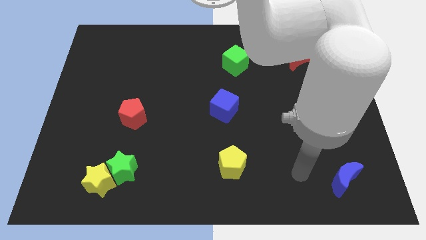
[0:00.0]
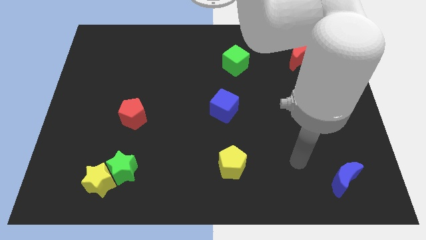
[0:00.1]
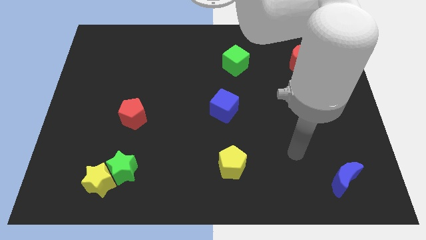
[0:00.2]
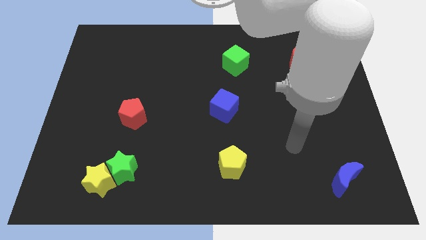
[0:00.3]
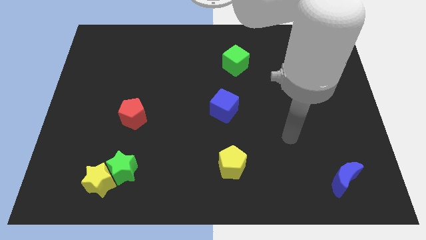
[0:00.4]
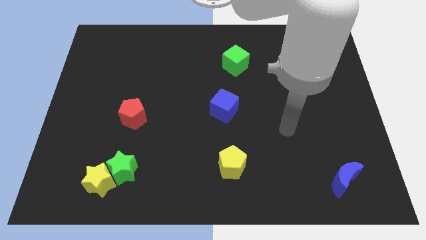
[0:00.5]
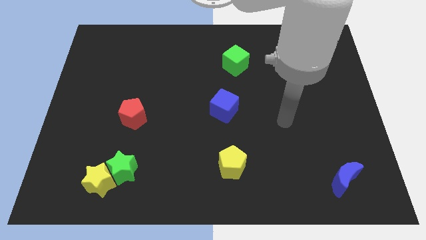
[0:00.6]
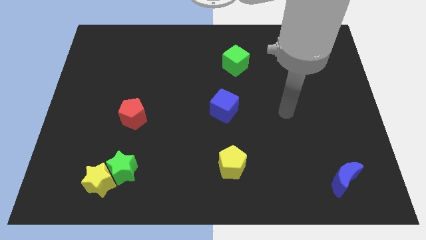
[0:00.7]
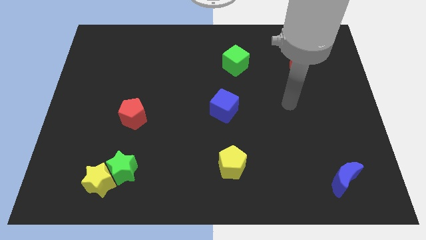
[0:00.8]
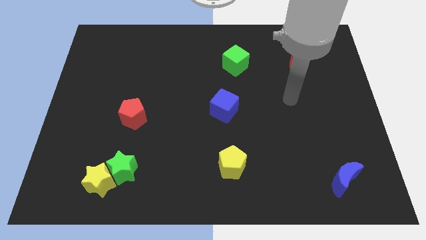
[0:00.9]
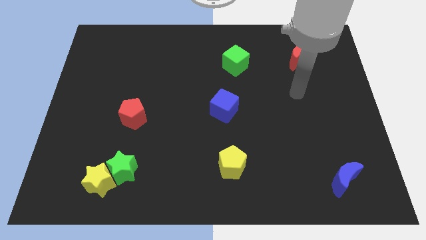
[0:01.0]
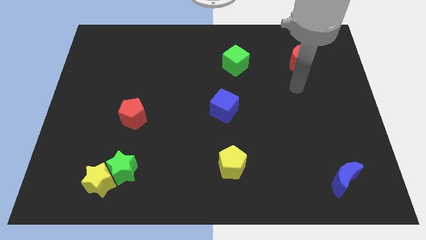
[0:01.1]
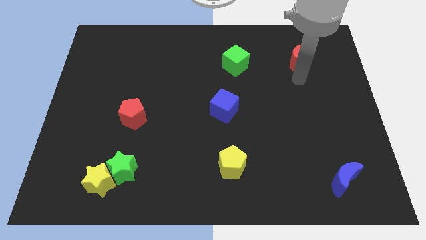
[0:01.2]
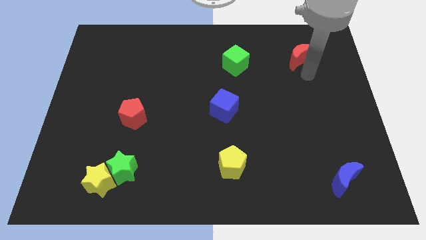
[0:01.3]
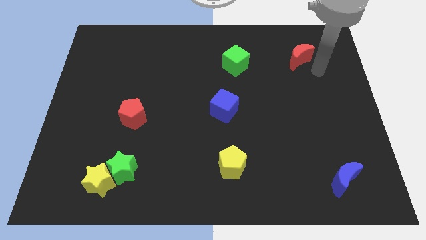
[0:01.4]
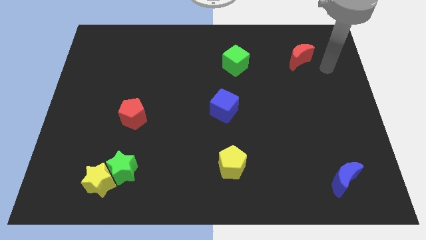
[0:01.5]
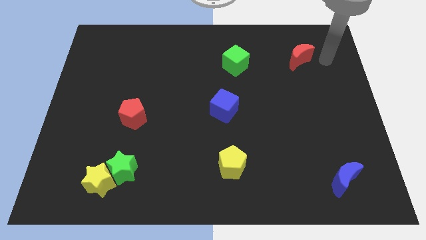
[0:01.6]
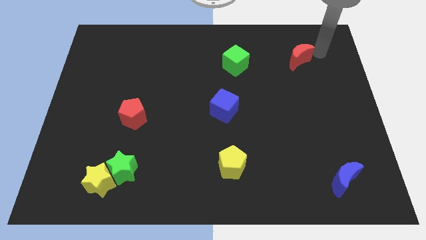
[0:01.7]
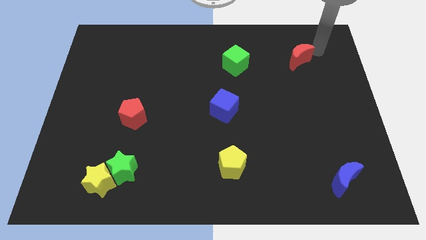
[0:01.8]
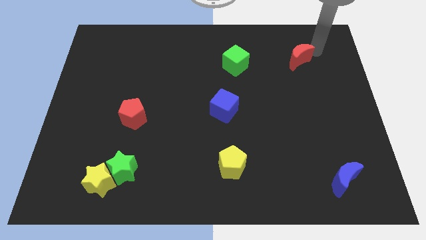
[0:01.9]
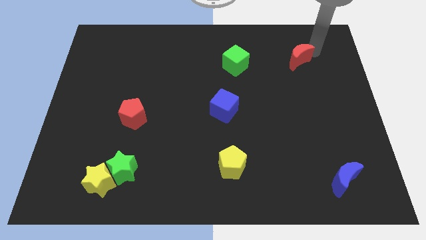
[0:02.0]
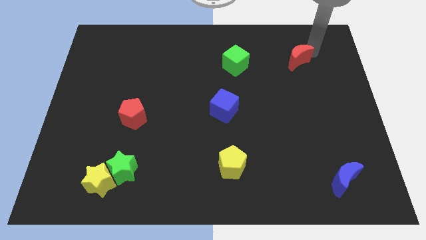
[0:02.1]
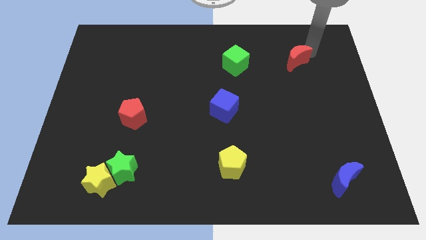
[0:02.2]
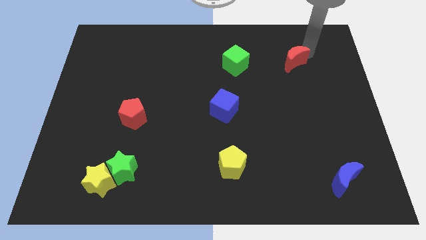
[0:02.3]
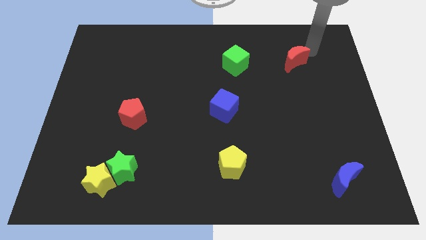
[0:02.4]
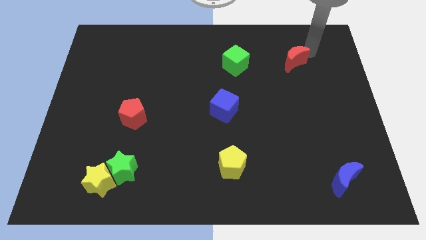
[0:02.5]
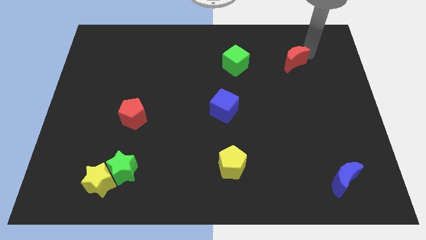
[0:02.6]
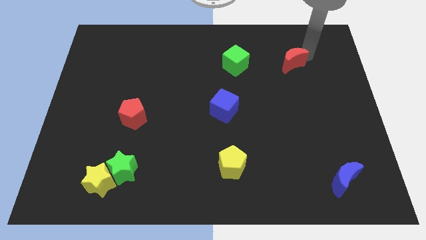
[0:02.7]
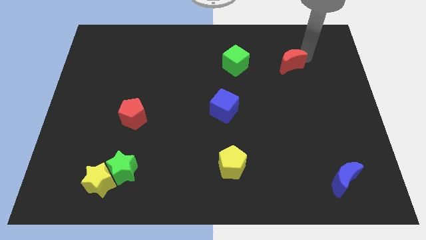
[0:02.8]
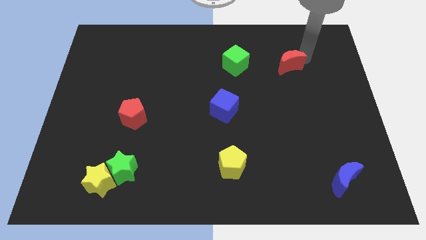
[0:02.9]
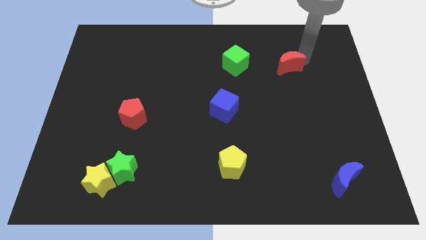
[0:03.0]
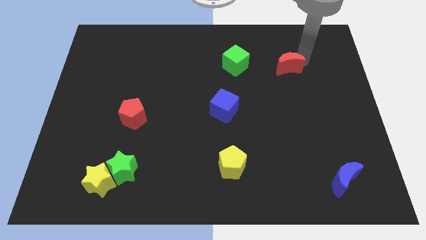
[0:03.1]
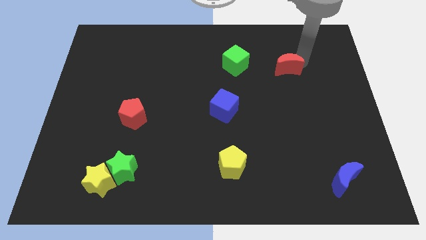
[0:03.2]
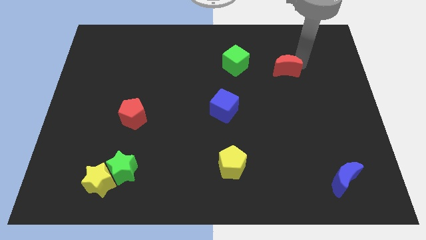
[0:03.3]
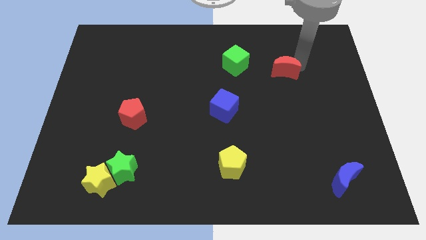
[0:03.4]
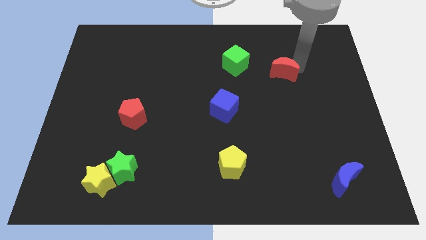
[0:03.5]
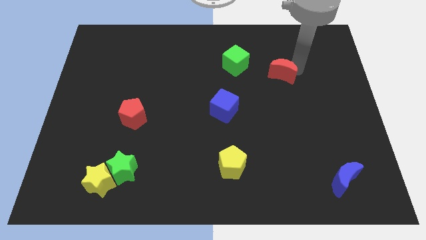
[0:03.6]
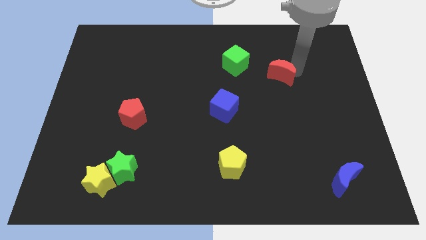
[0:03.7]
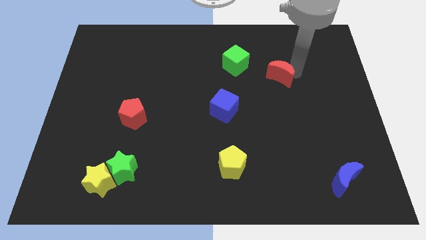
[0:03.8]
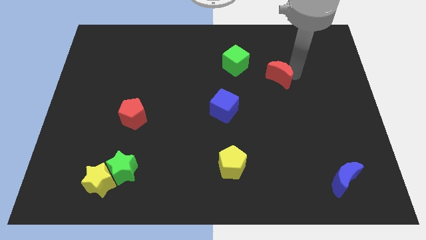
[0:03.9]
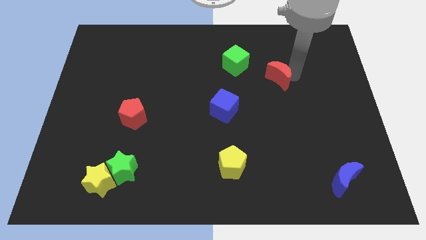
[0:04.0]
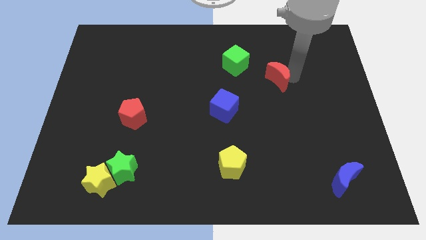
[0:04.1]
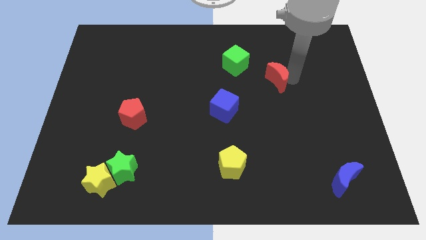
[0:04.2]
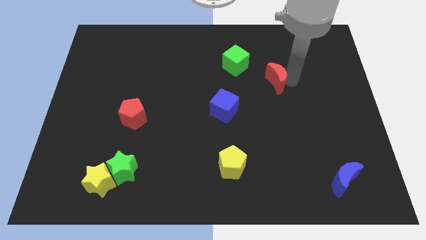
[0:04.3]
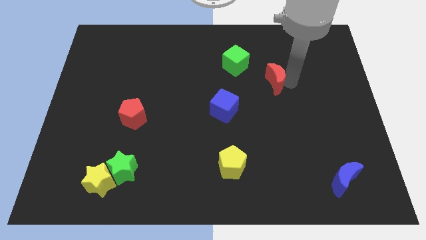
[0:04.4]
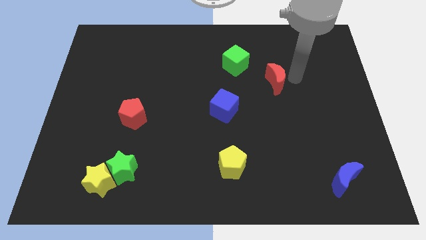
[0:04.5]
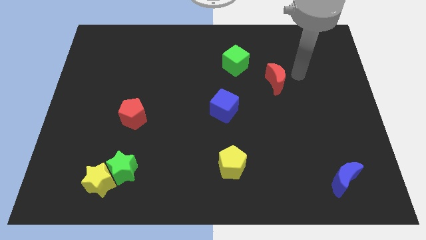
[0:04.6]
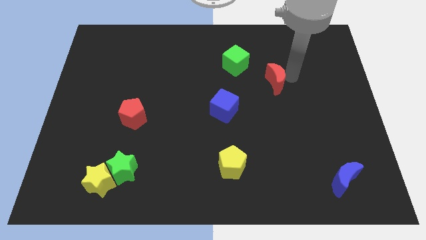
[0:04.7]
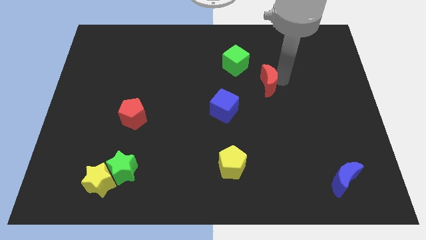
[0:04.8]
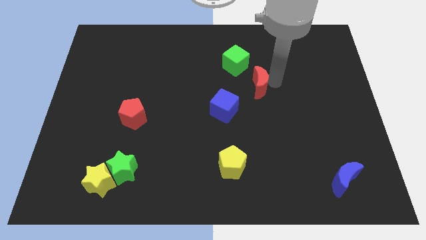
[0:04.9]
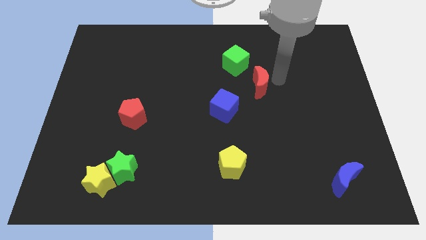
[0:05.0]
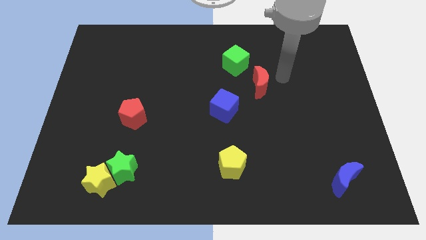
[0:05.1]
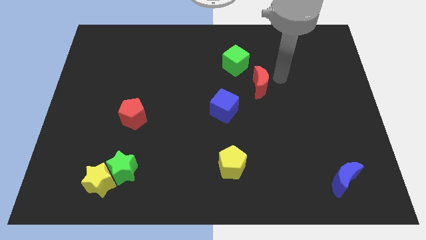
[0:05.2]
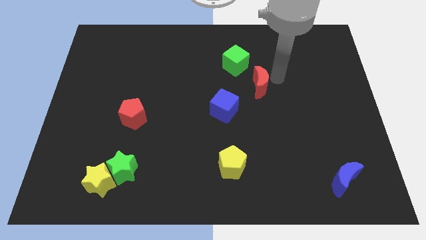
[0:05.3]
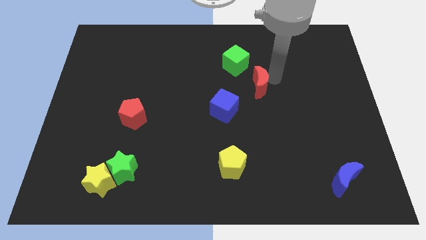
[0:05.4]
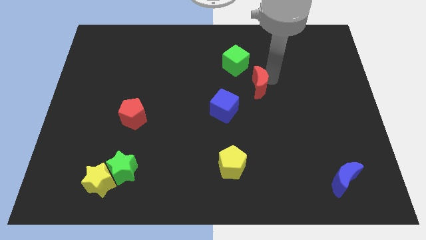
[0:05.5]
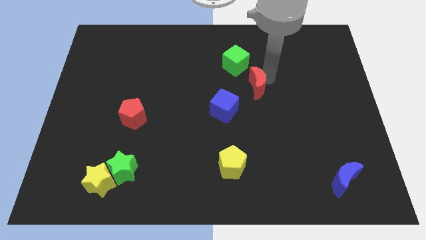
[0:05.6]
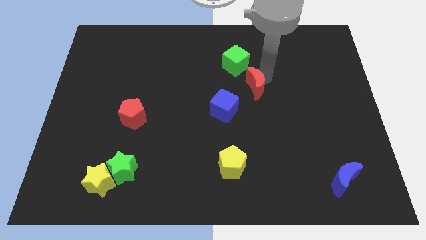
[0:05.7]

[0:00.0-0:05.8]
move the red moon to the bottom of the green cube
